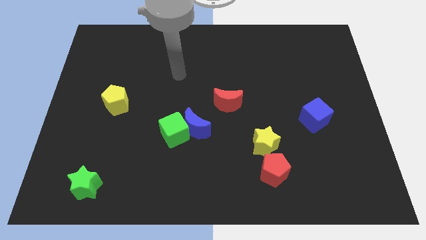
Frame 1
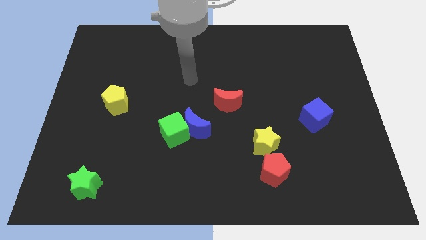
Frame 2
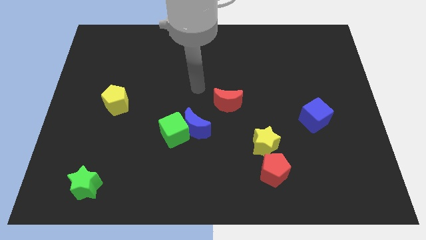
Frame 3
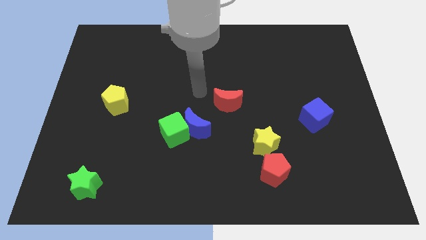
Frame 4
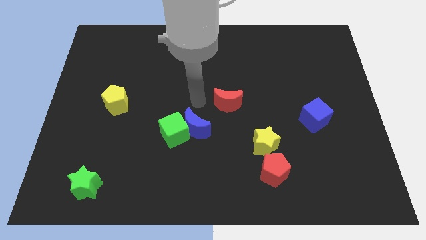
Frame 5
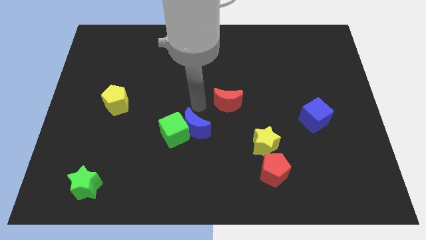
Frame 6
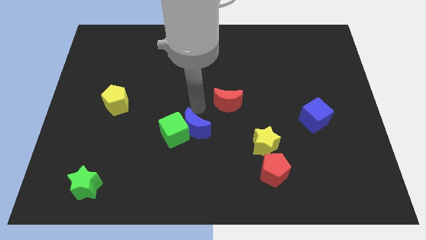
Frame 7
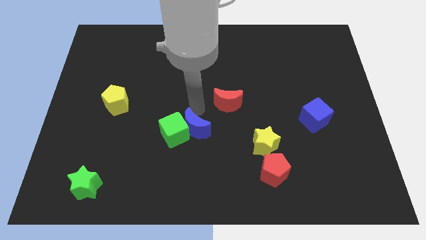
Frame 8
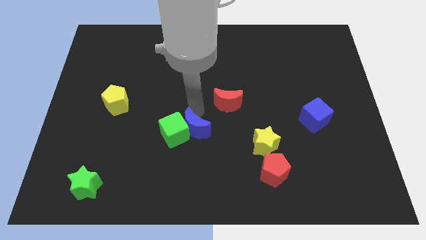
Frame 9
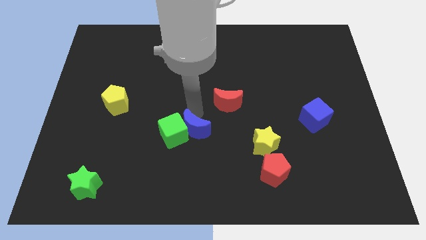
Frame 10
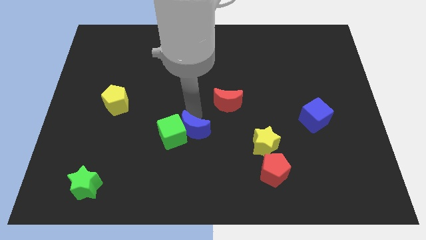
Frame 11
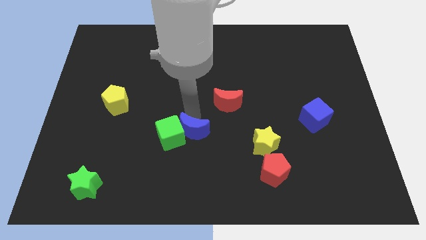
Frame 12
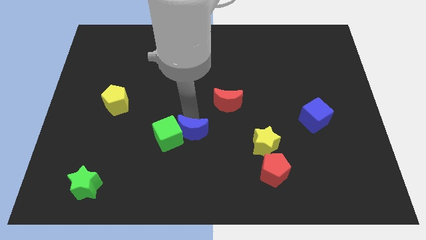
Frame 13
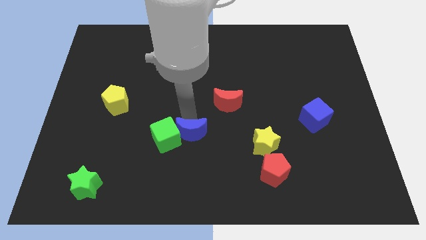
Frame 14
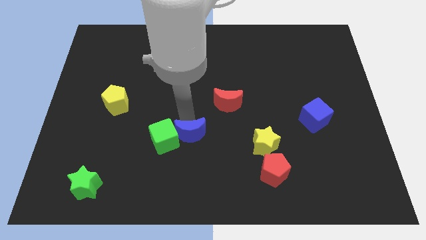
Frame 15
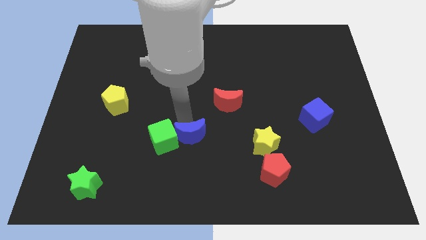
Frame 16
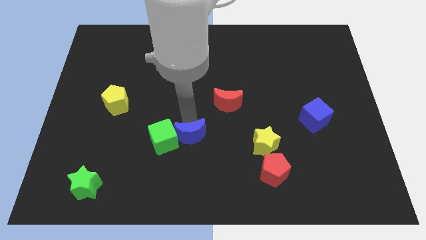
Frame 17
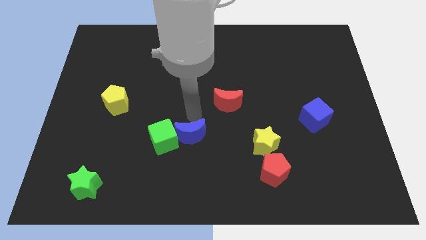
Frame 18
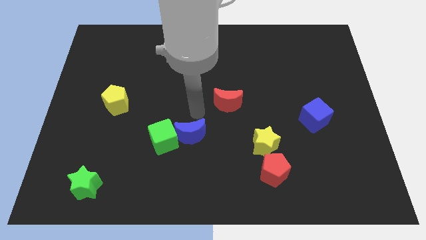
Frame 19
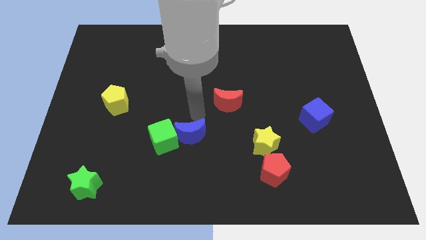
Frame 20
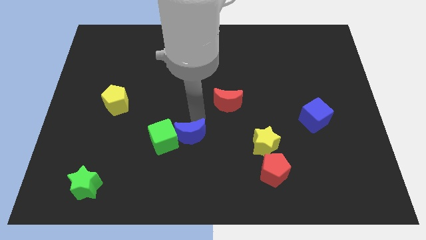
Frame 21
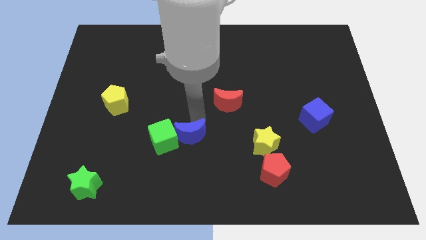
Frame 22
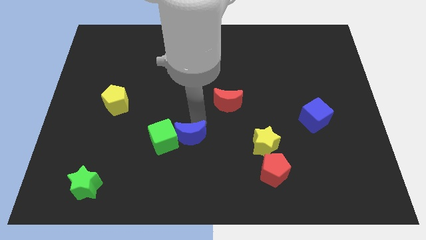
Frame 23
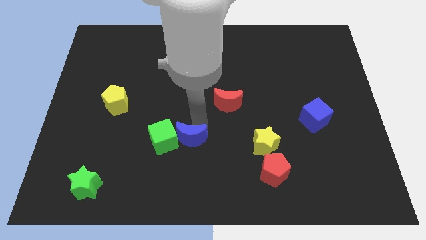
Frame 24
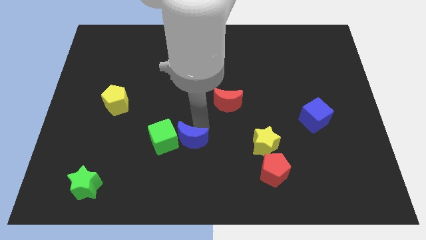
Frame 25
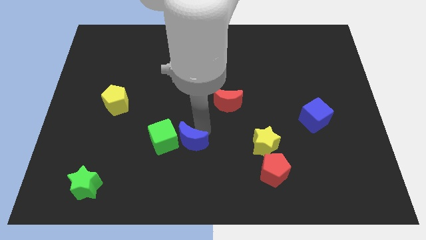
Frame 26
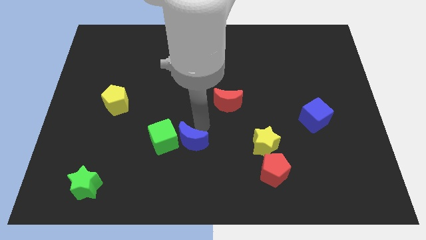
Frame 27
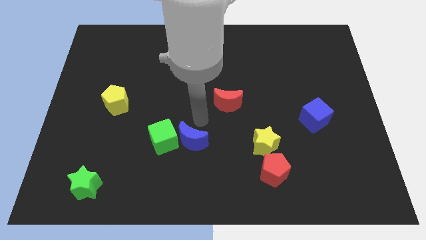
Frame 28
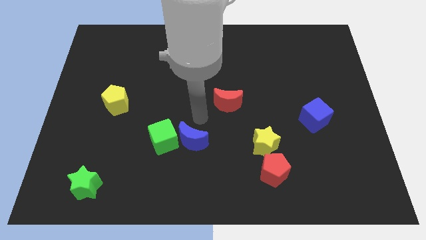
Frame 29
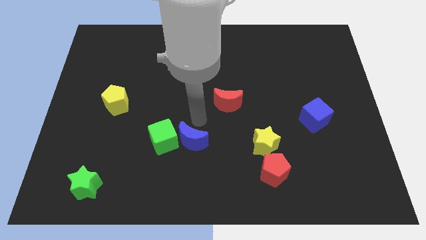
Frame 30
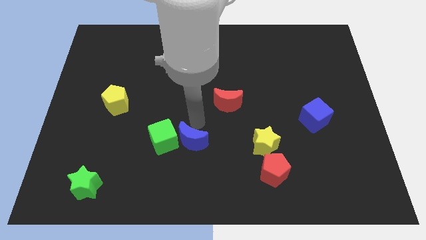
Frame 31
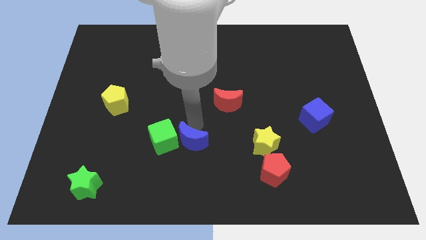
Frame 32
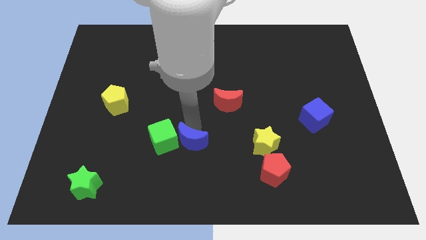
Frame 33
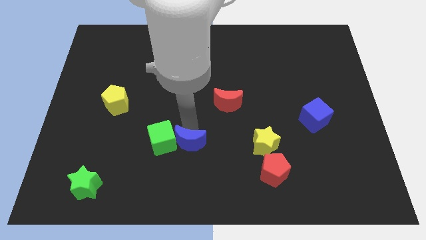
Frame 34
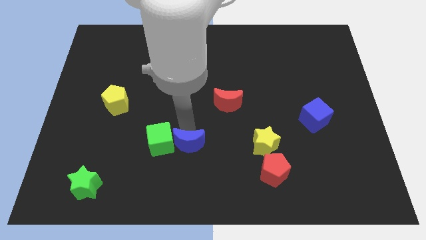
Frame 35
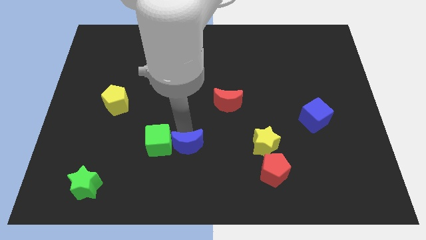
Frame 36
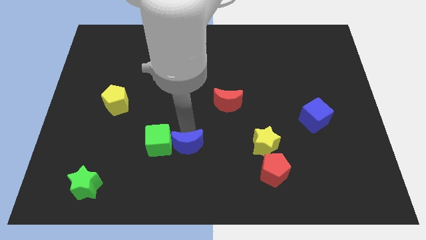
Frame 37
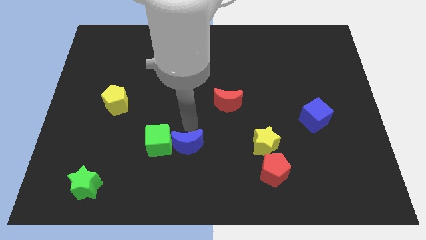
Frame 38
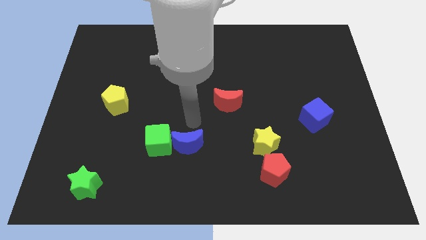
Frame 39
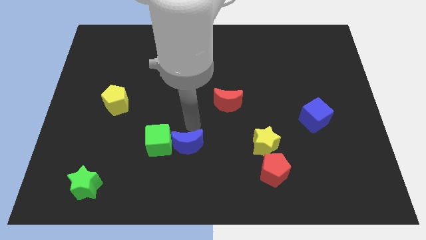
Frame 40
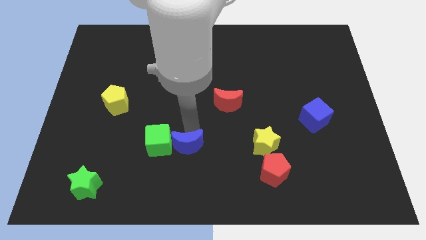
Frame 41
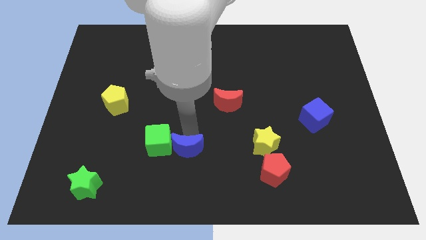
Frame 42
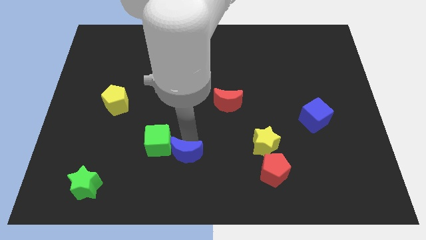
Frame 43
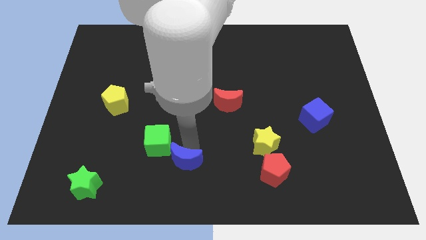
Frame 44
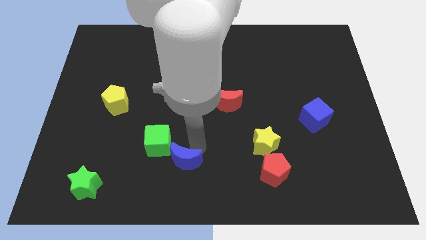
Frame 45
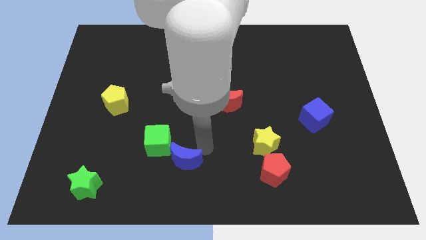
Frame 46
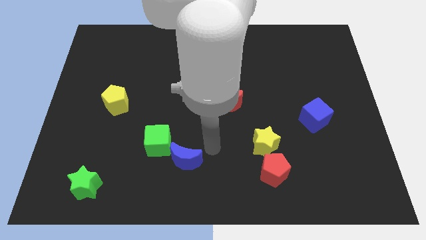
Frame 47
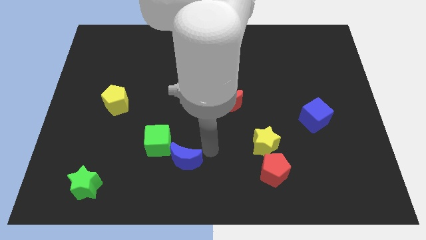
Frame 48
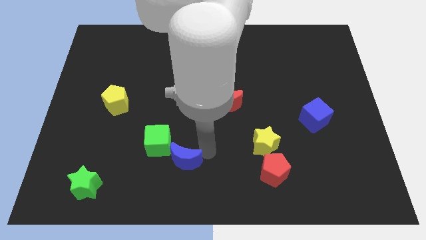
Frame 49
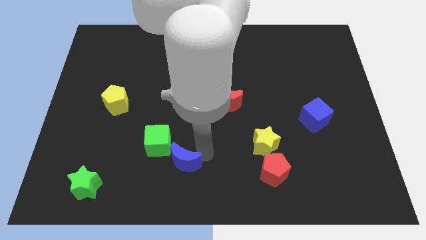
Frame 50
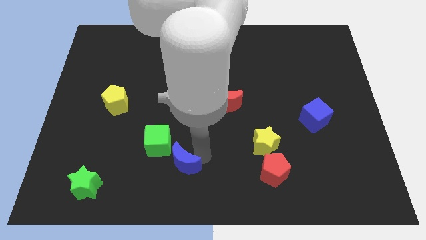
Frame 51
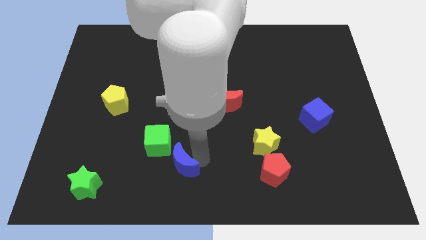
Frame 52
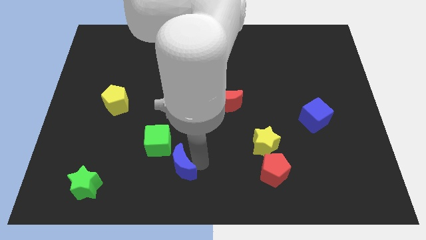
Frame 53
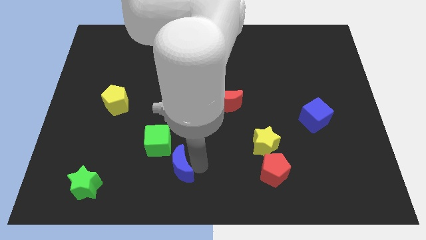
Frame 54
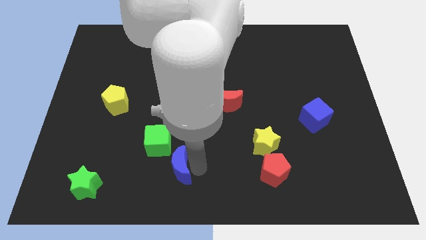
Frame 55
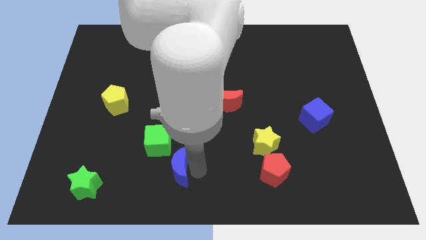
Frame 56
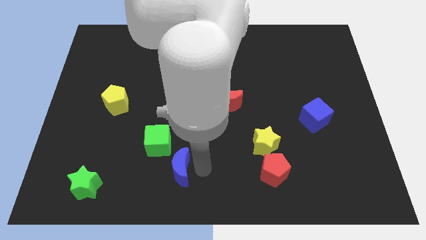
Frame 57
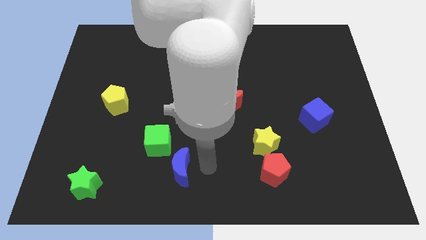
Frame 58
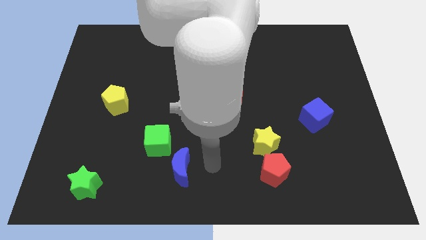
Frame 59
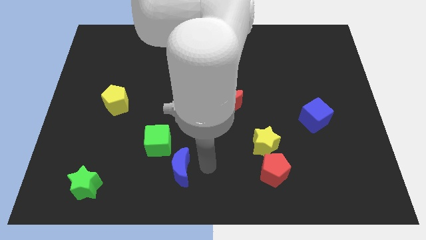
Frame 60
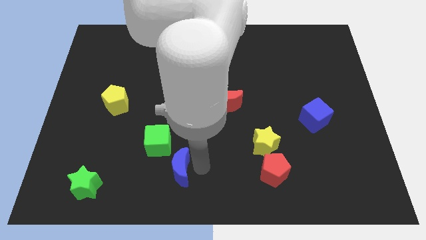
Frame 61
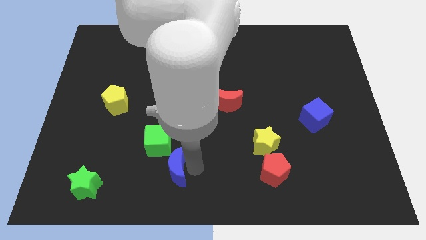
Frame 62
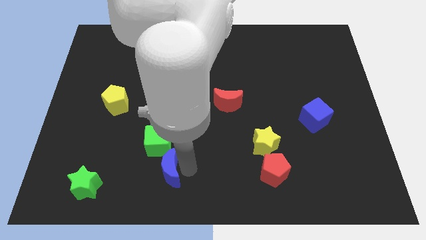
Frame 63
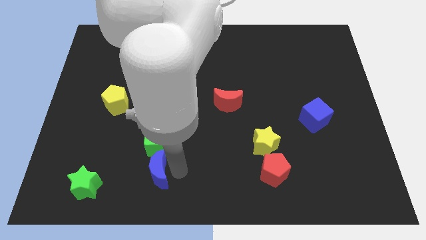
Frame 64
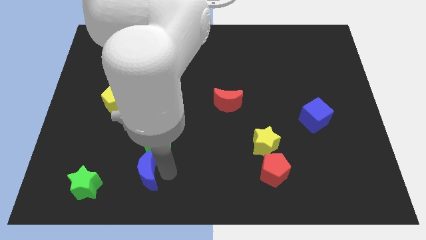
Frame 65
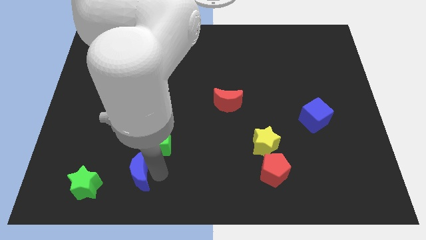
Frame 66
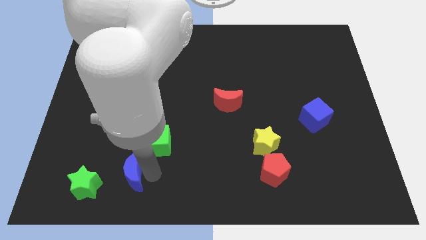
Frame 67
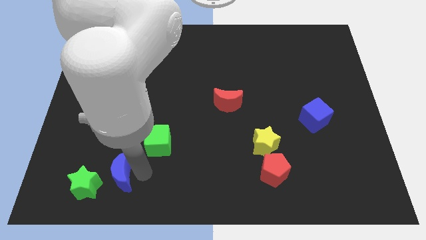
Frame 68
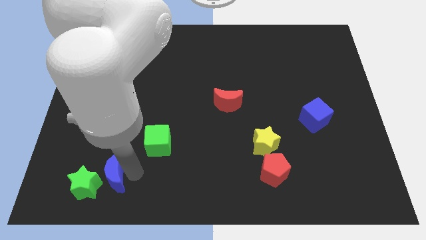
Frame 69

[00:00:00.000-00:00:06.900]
move the blue moon close to the green star
